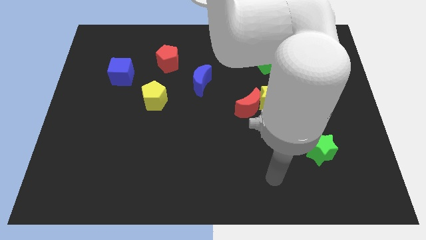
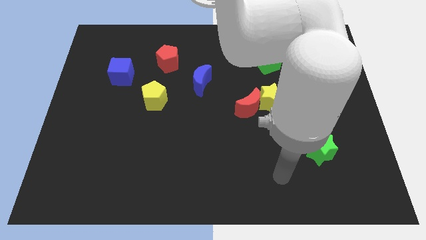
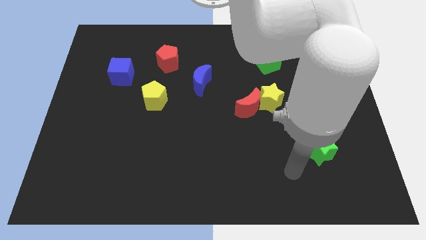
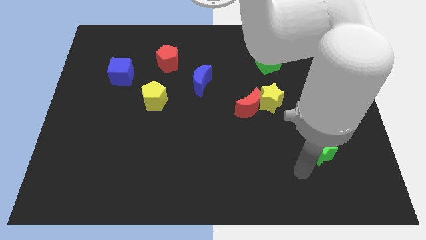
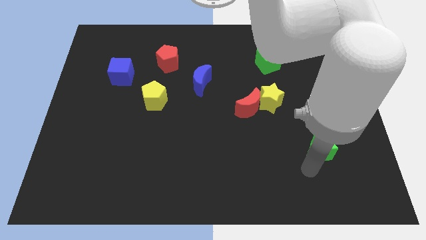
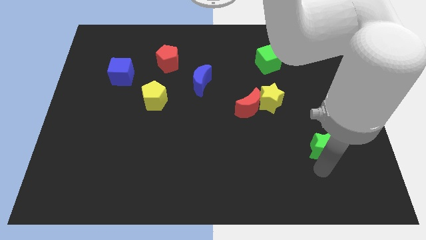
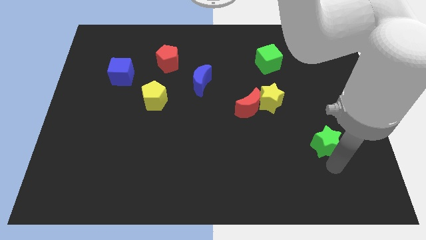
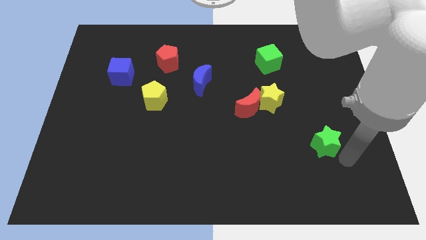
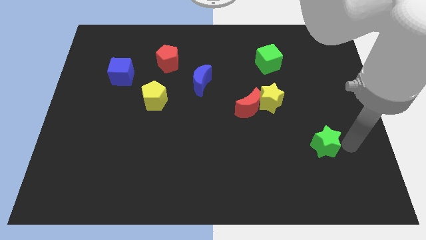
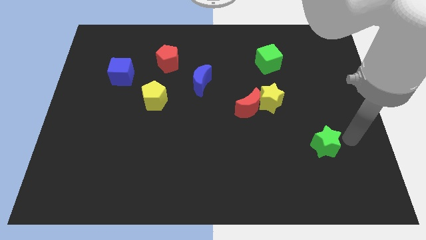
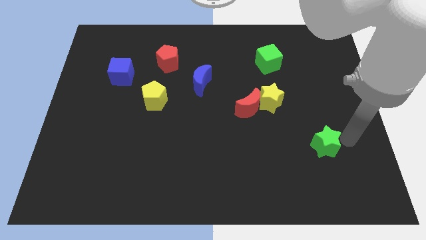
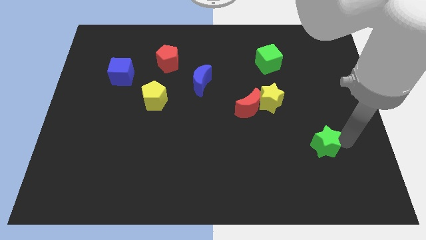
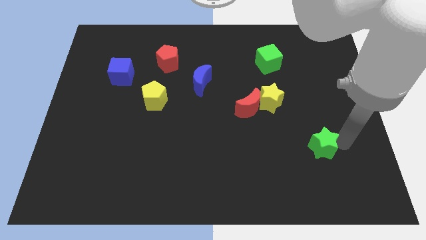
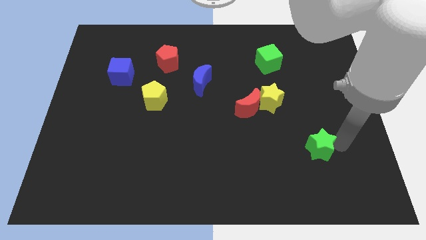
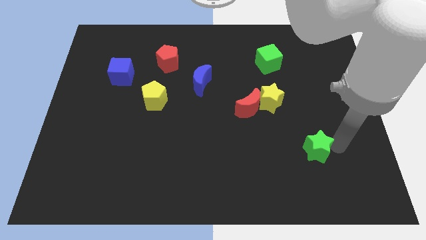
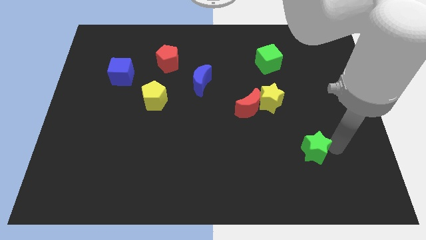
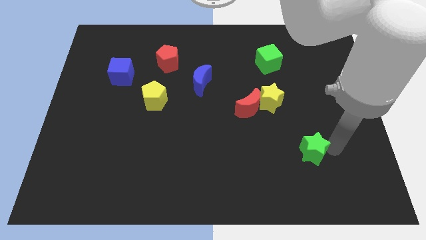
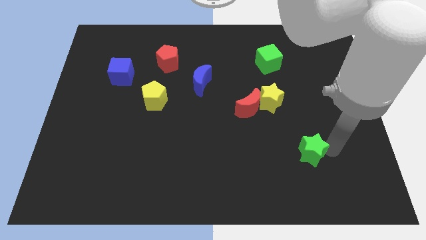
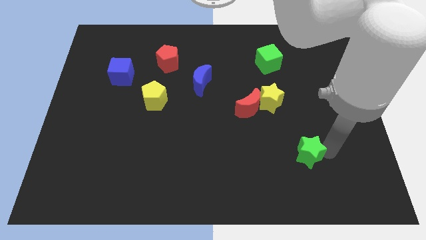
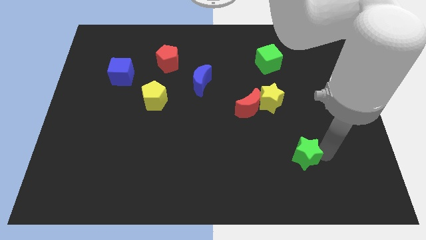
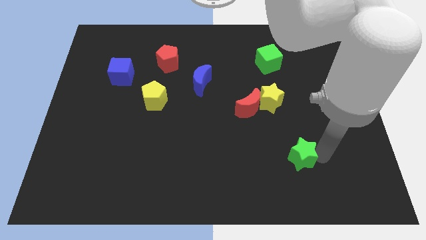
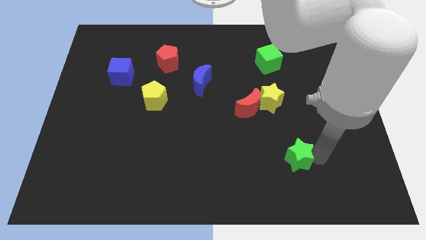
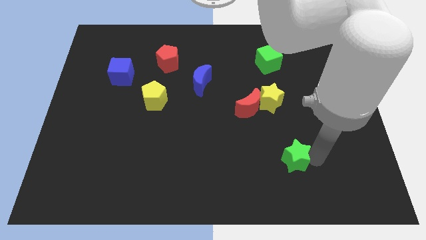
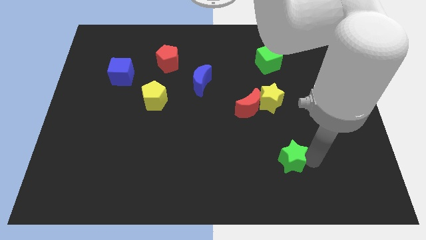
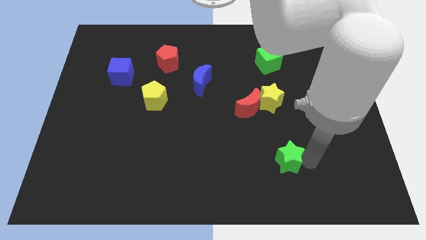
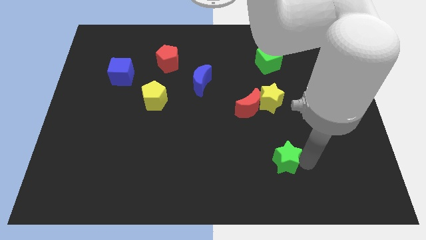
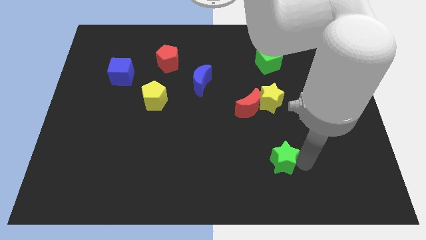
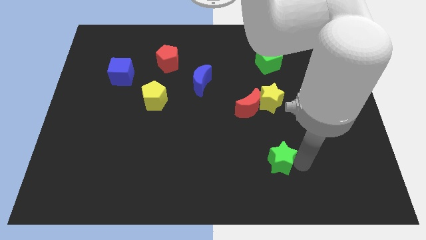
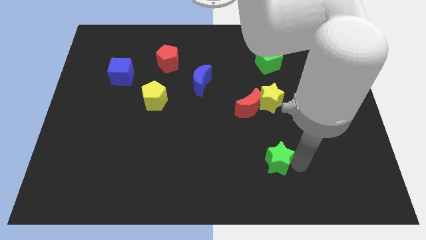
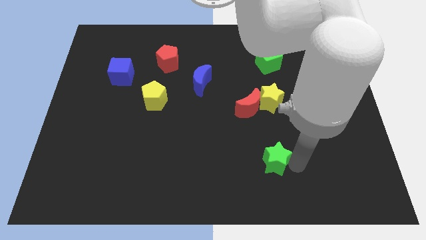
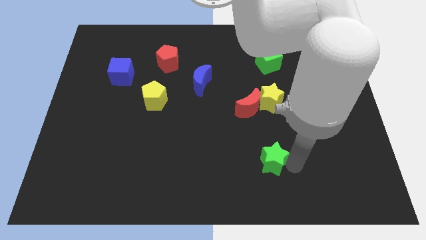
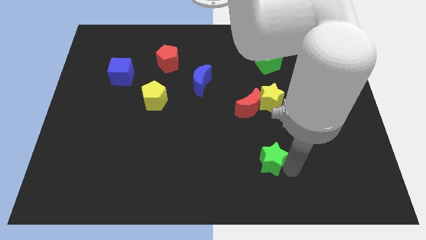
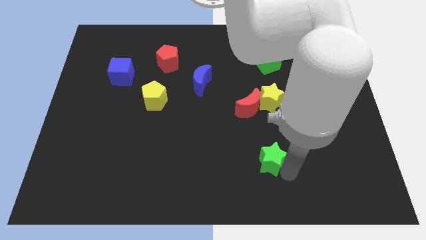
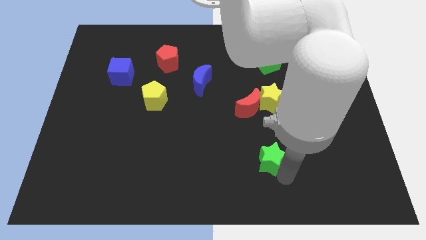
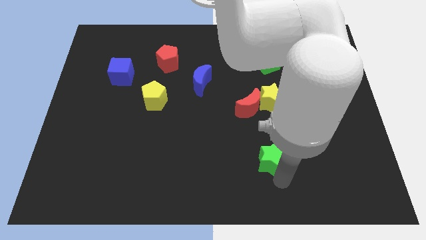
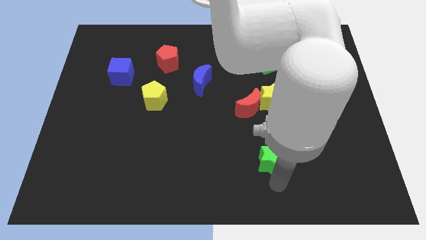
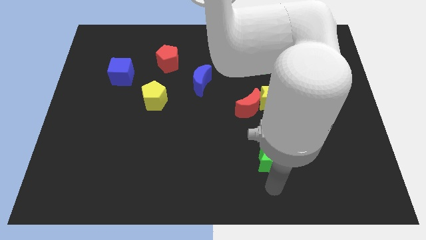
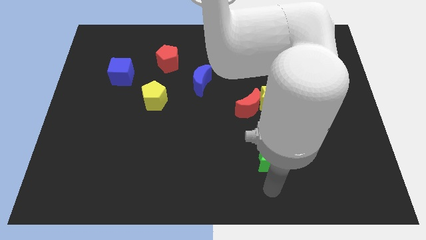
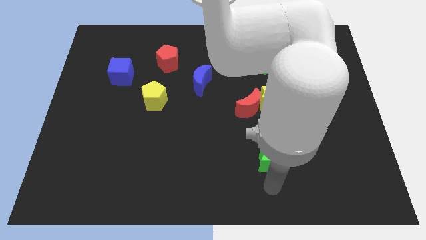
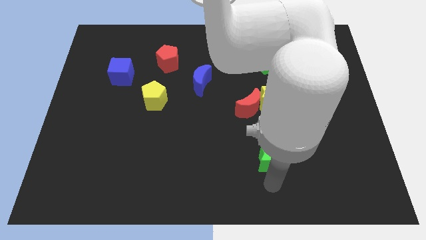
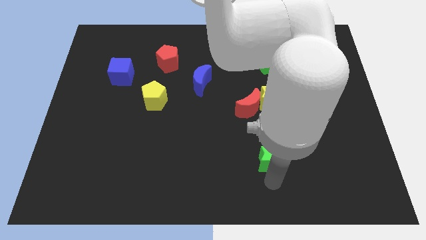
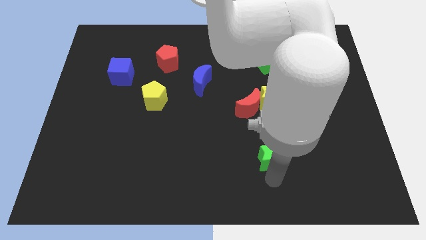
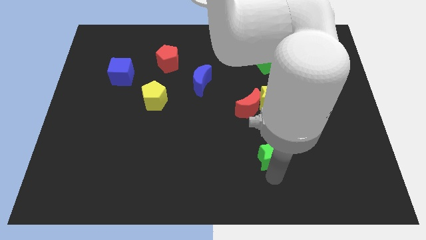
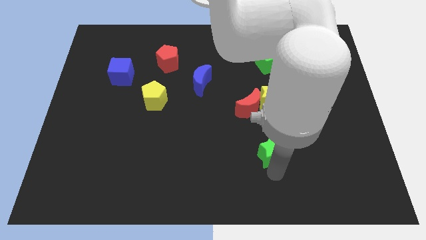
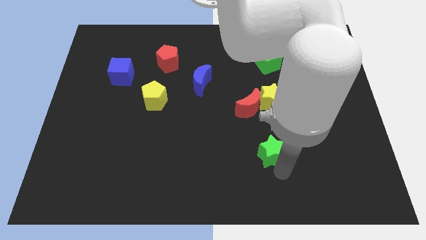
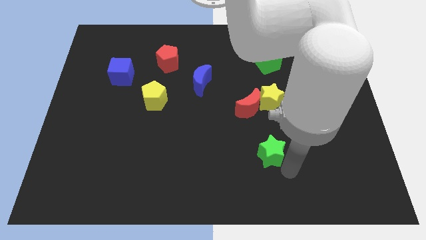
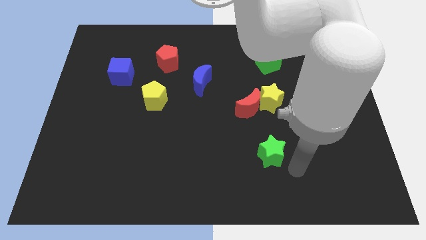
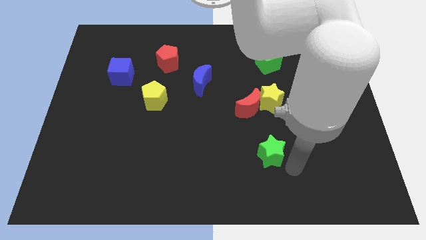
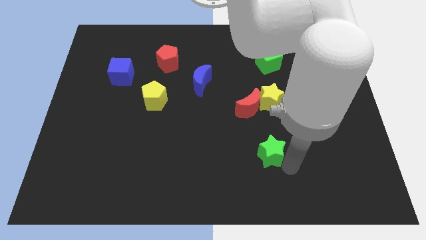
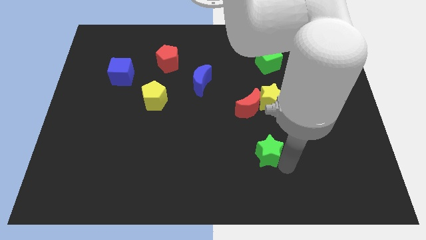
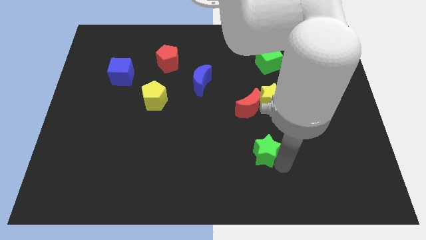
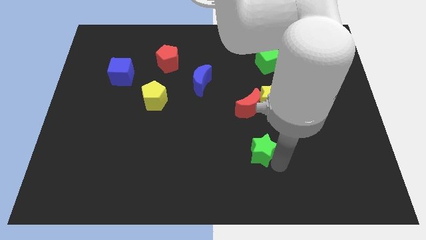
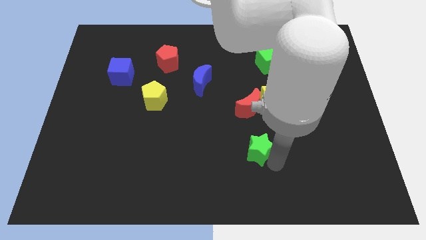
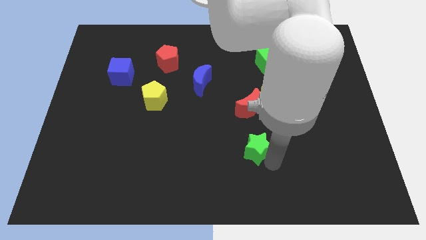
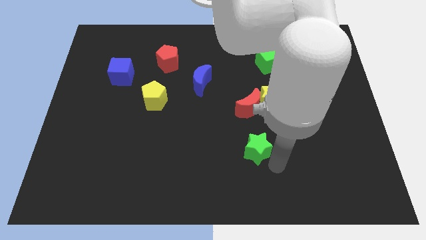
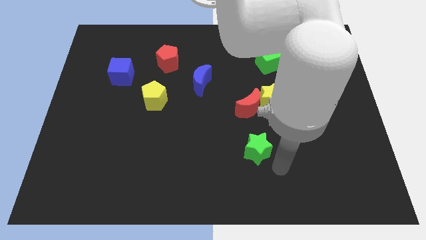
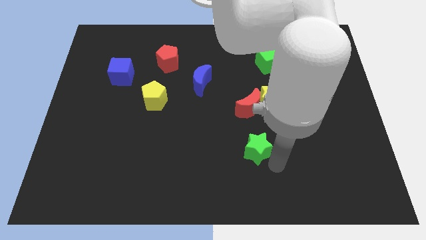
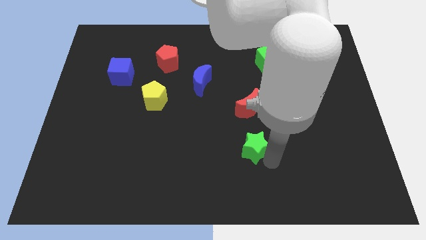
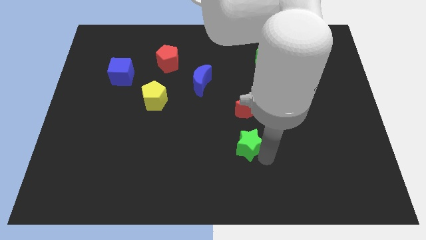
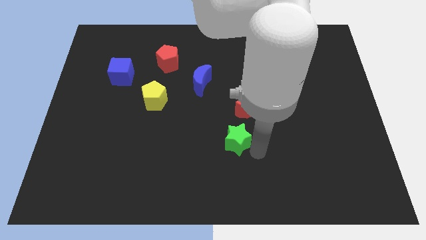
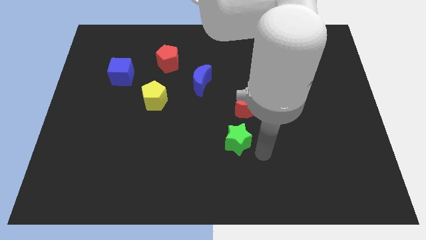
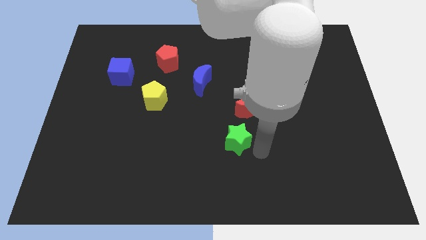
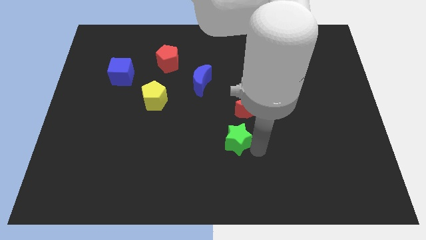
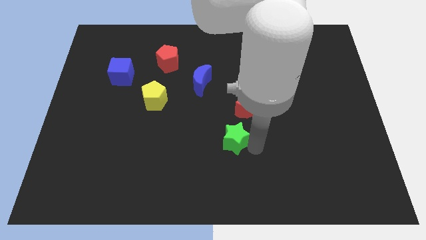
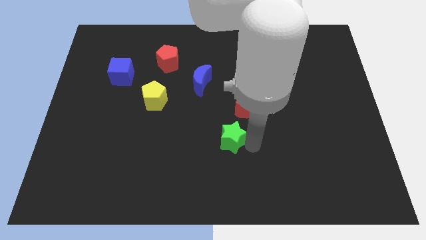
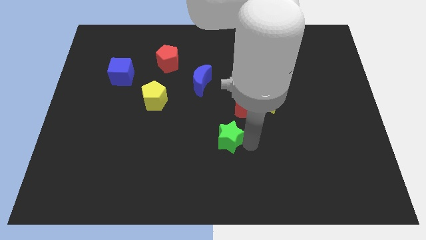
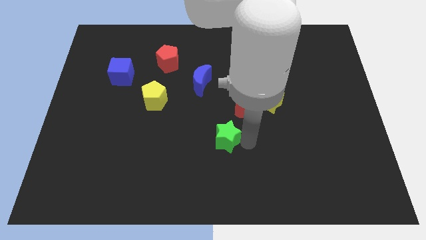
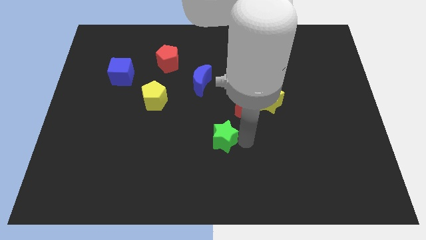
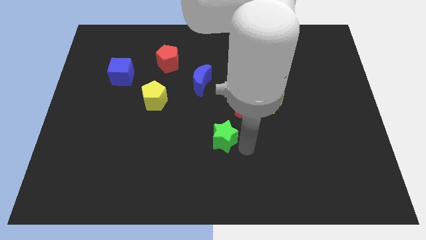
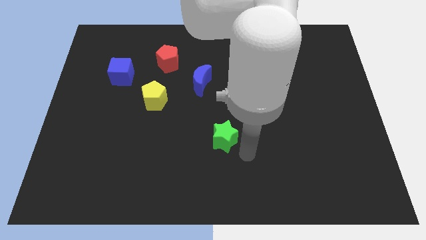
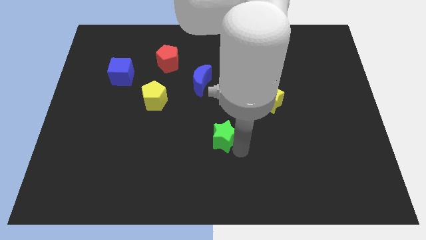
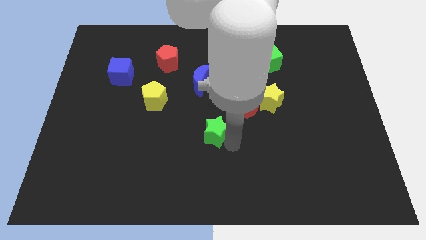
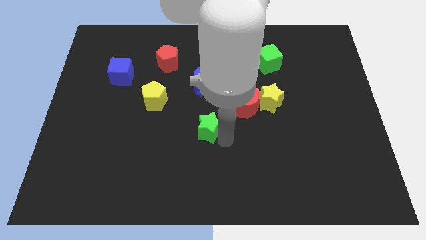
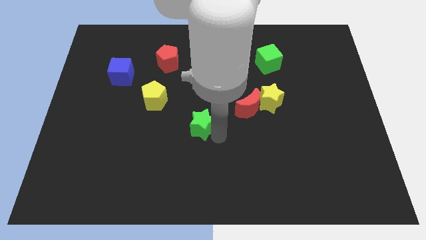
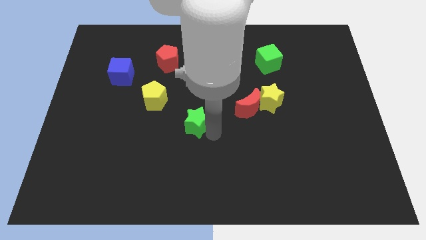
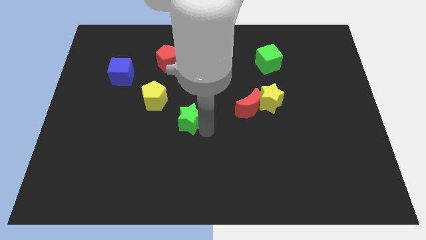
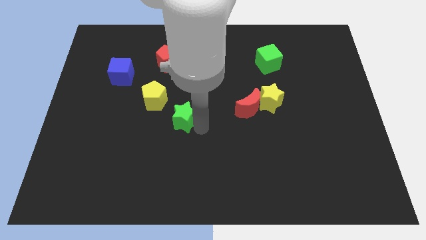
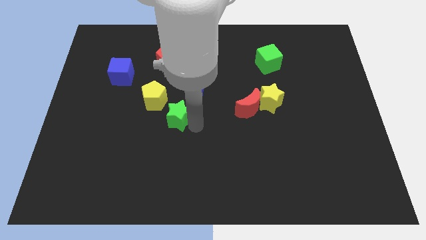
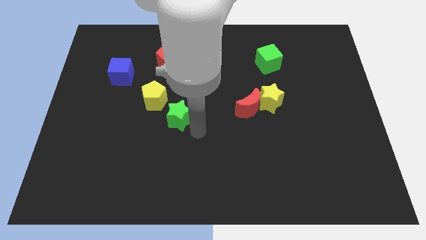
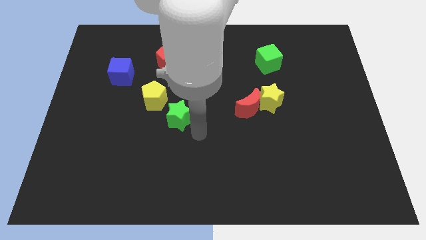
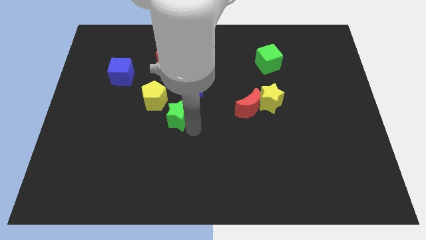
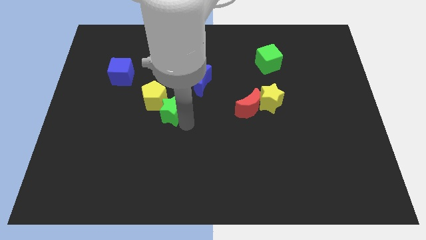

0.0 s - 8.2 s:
slide the green star next to the yellow pentagon
